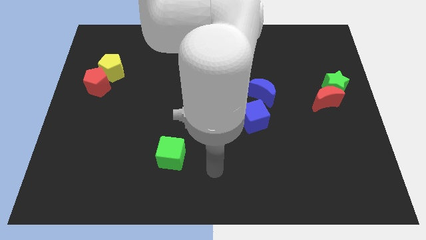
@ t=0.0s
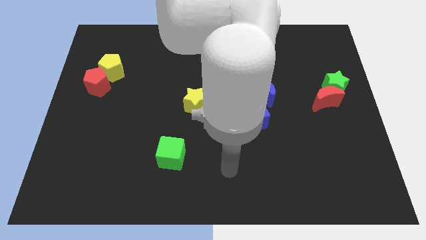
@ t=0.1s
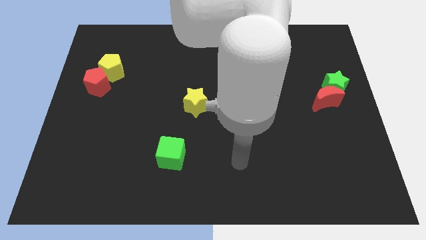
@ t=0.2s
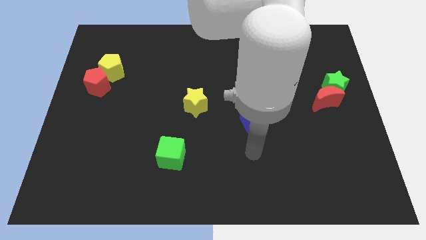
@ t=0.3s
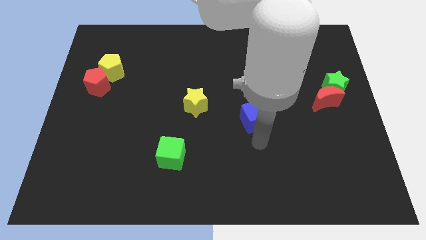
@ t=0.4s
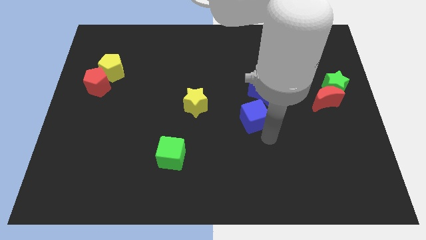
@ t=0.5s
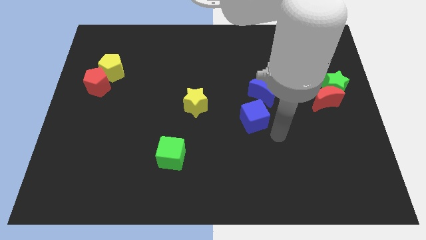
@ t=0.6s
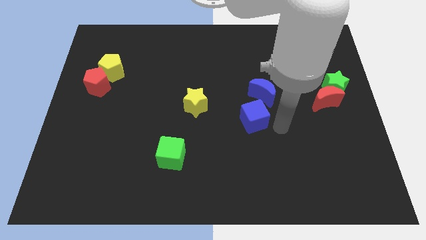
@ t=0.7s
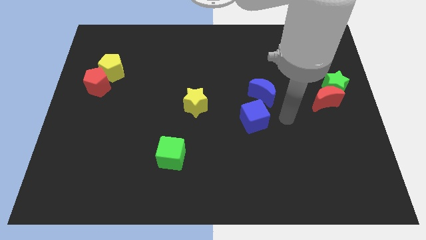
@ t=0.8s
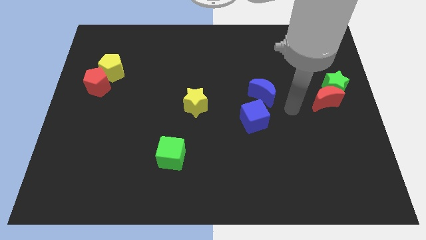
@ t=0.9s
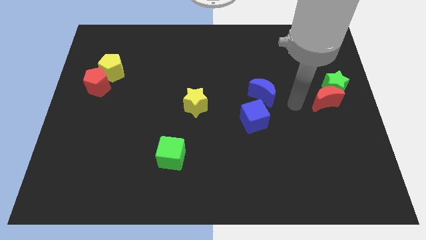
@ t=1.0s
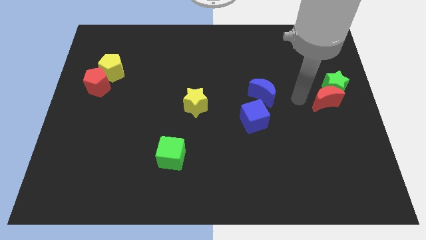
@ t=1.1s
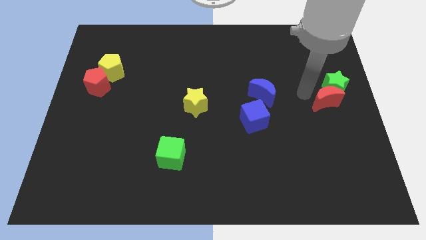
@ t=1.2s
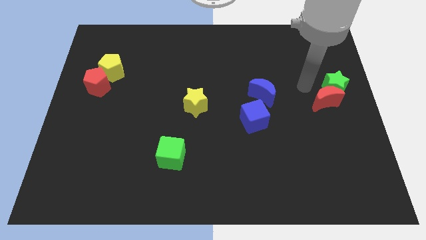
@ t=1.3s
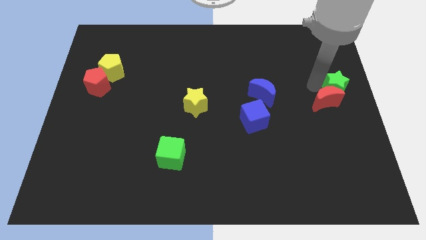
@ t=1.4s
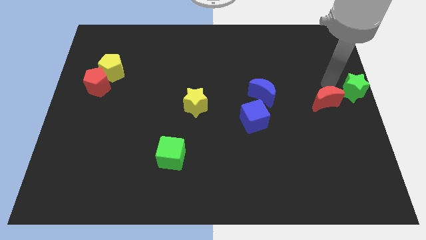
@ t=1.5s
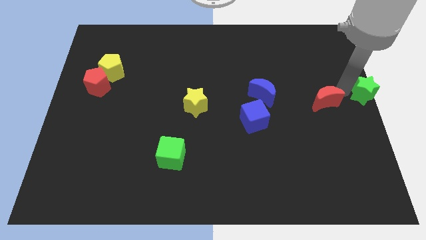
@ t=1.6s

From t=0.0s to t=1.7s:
separate the red moon from the green star

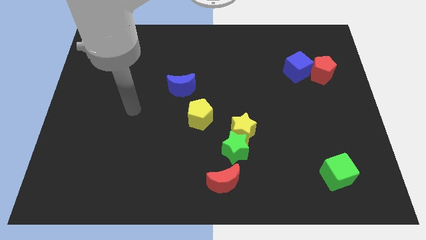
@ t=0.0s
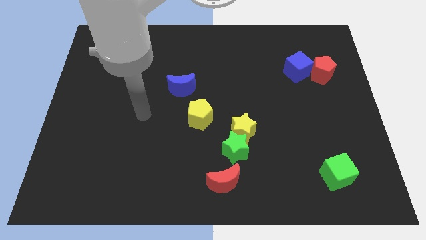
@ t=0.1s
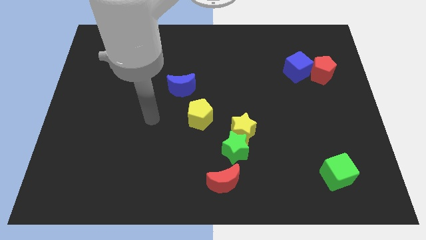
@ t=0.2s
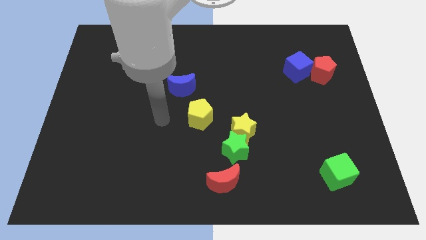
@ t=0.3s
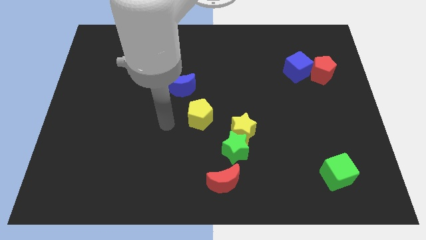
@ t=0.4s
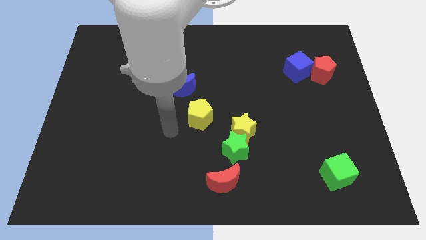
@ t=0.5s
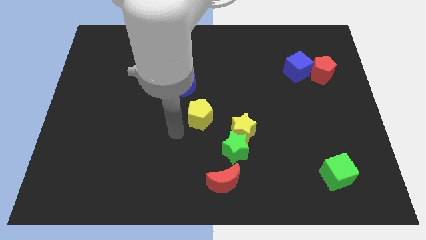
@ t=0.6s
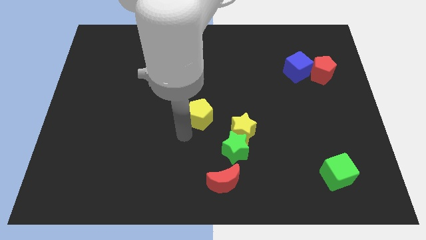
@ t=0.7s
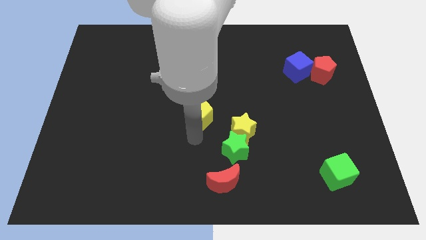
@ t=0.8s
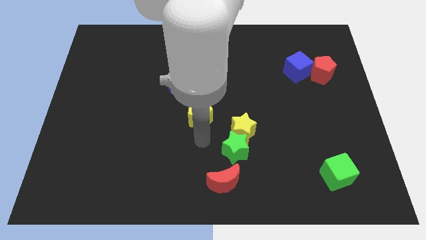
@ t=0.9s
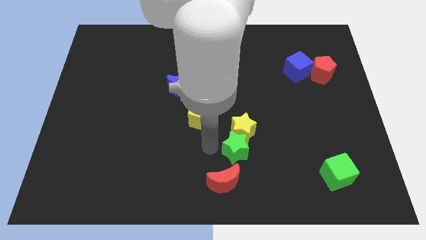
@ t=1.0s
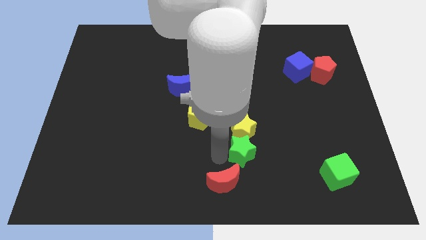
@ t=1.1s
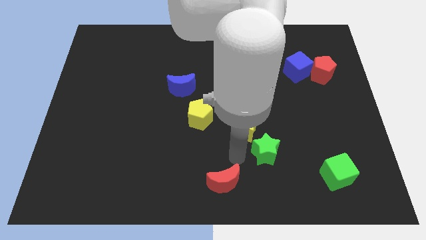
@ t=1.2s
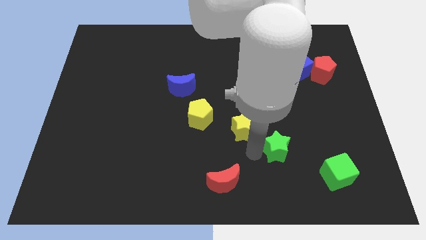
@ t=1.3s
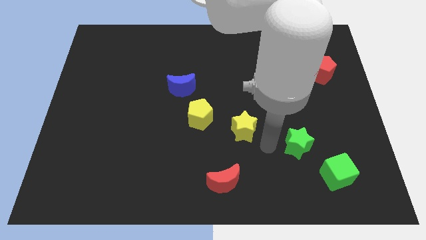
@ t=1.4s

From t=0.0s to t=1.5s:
move the yellow star away from the green star

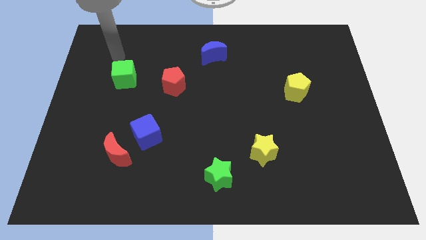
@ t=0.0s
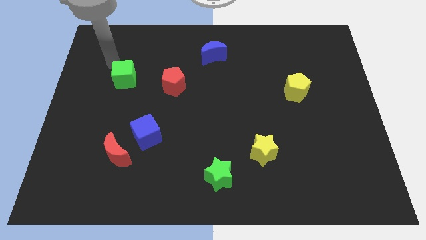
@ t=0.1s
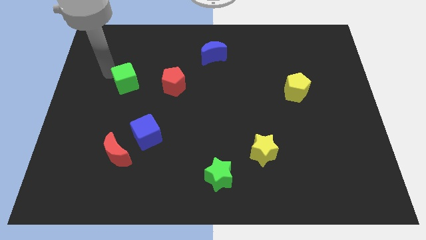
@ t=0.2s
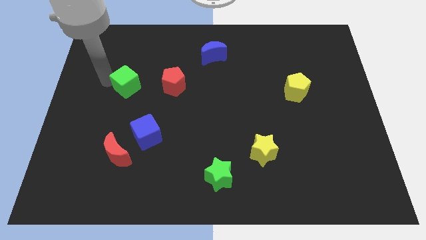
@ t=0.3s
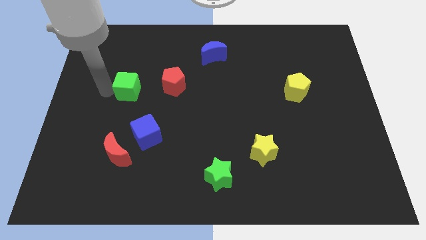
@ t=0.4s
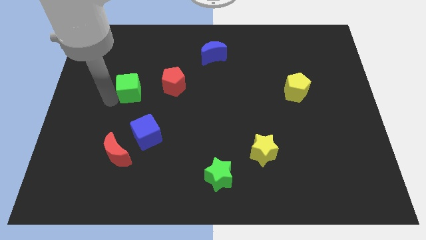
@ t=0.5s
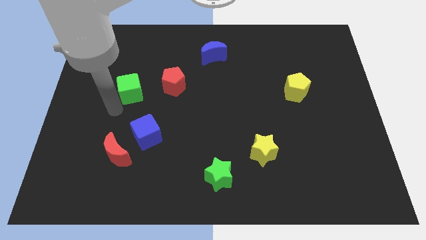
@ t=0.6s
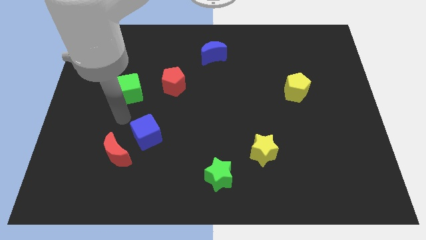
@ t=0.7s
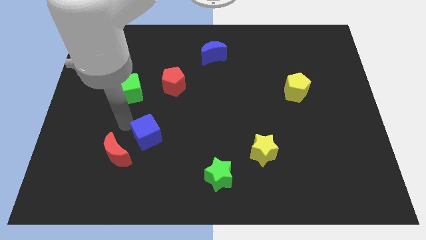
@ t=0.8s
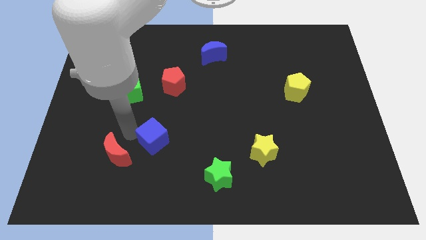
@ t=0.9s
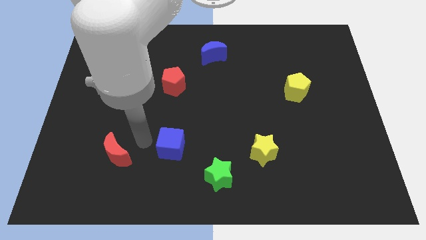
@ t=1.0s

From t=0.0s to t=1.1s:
separate the red moon from the blue cube

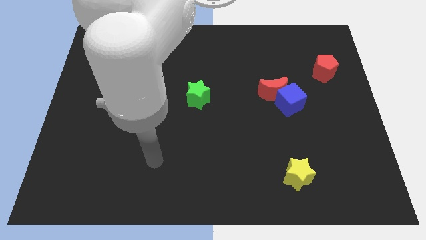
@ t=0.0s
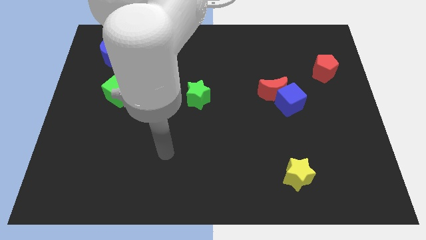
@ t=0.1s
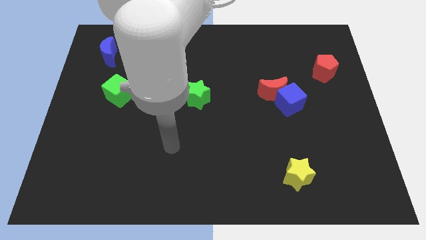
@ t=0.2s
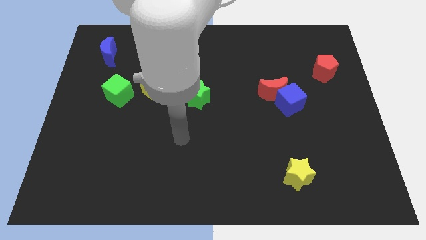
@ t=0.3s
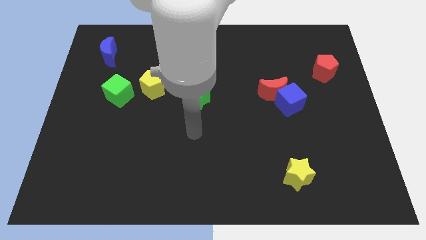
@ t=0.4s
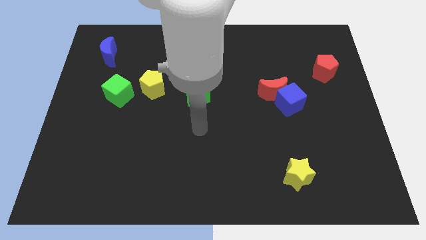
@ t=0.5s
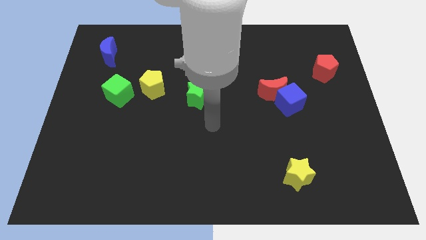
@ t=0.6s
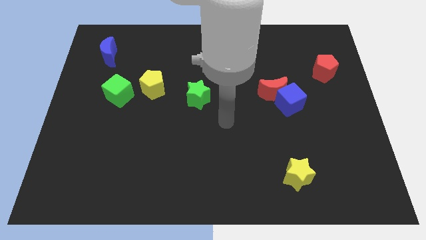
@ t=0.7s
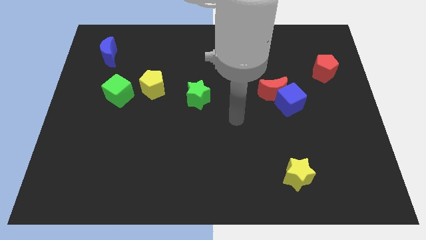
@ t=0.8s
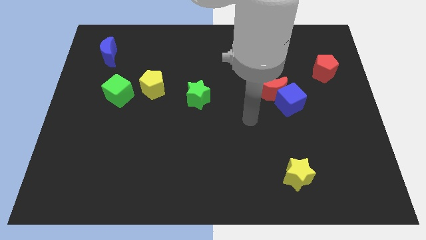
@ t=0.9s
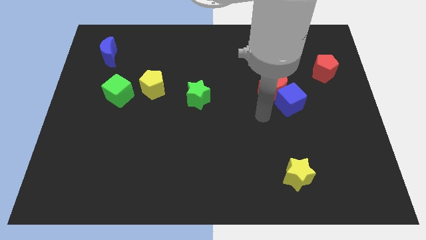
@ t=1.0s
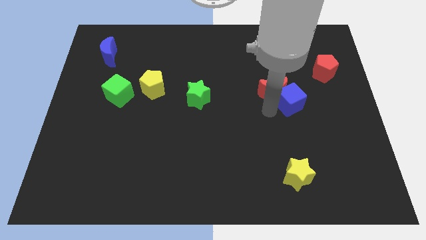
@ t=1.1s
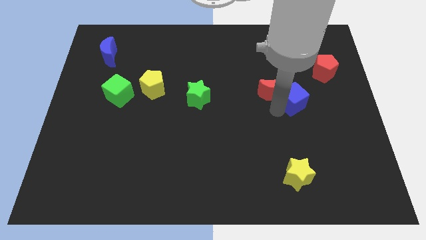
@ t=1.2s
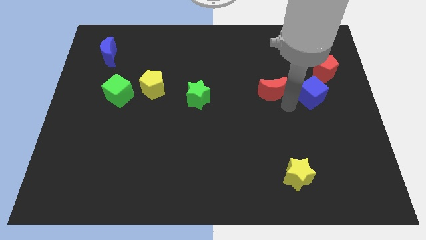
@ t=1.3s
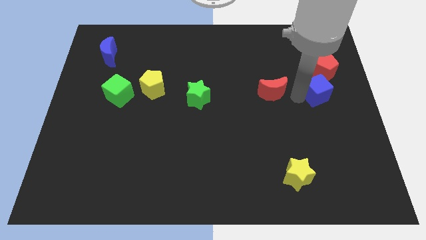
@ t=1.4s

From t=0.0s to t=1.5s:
pull the red moon apart from the blue cube

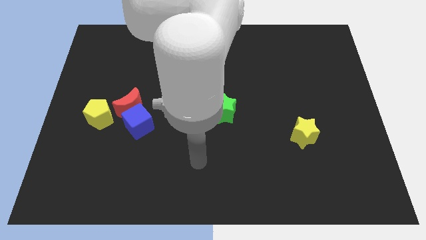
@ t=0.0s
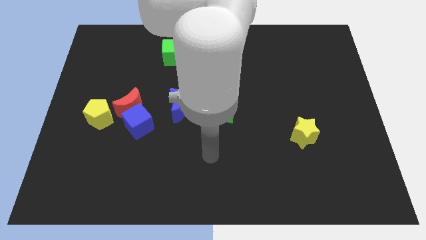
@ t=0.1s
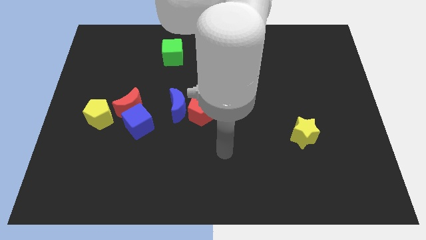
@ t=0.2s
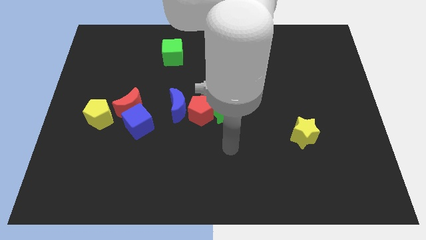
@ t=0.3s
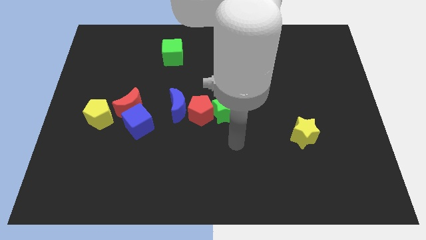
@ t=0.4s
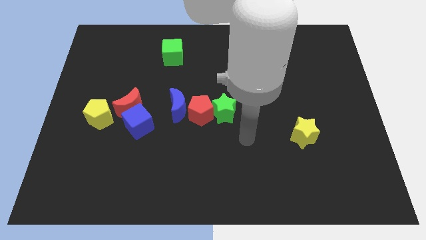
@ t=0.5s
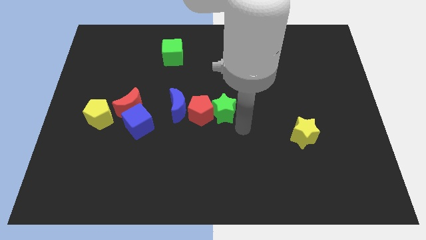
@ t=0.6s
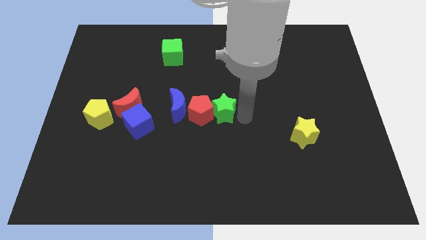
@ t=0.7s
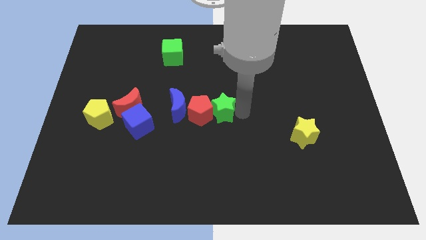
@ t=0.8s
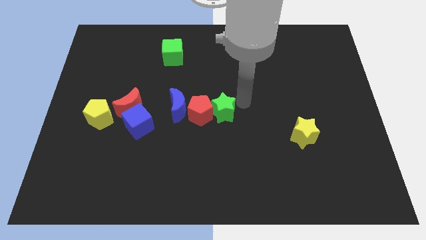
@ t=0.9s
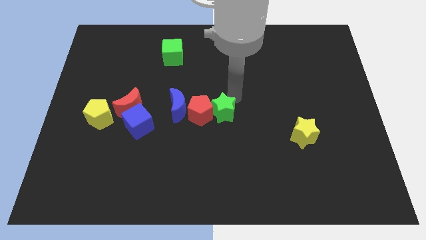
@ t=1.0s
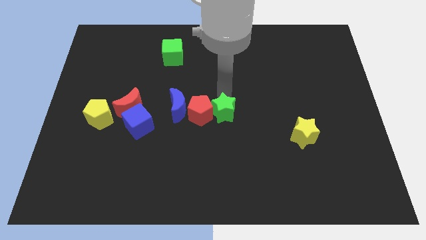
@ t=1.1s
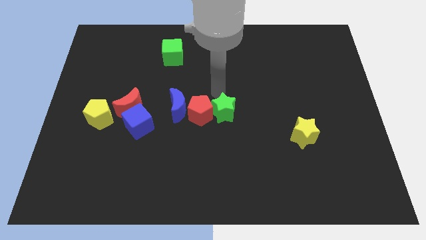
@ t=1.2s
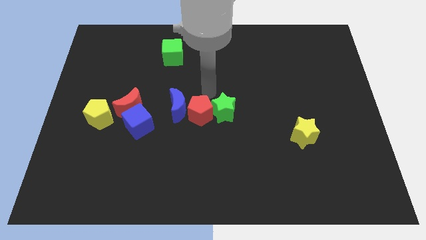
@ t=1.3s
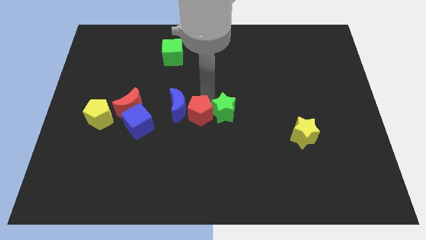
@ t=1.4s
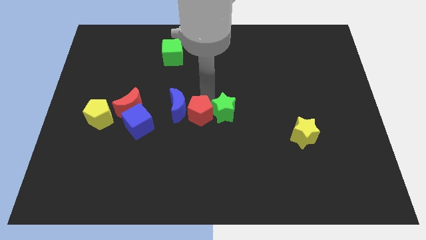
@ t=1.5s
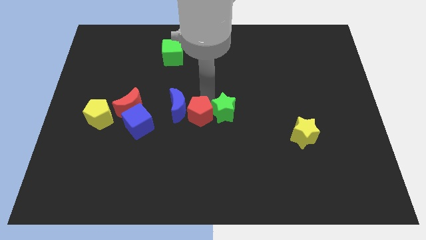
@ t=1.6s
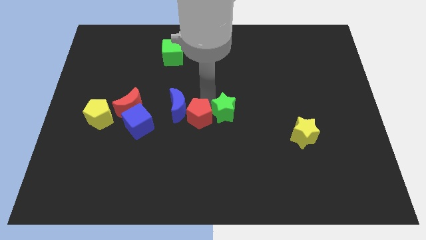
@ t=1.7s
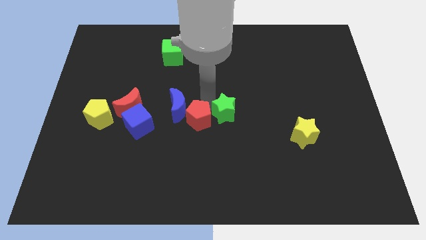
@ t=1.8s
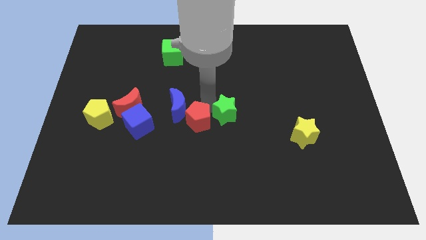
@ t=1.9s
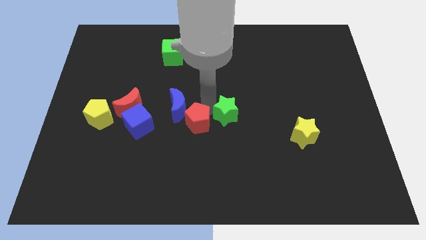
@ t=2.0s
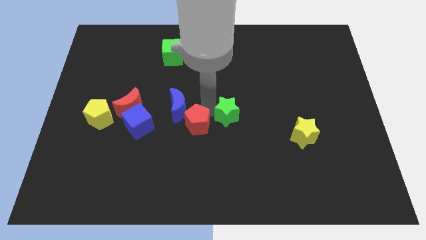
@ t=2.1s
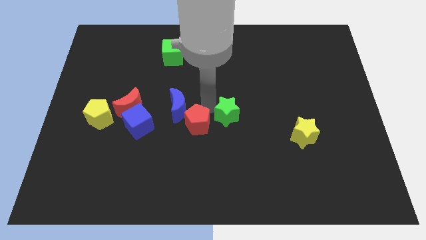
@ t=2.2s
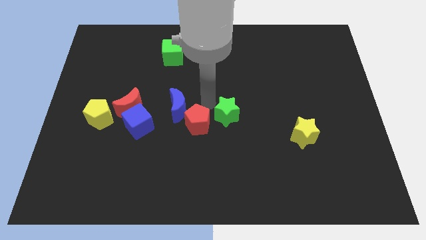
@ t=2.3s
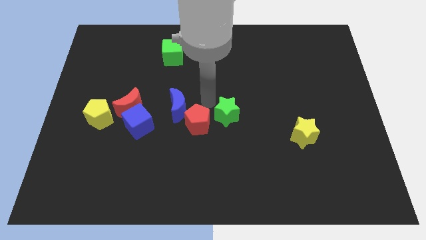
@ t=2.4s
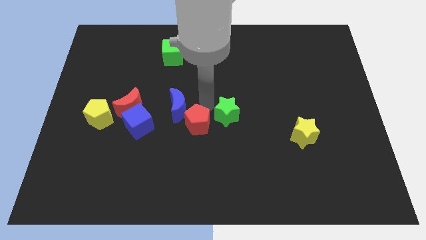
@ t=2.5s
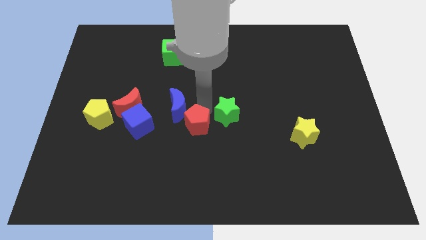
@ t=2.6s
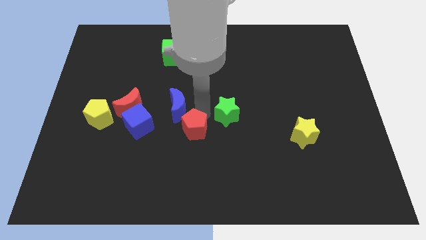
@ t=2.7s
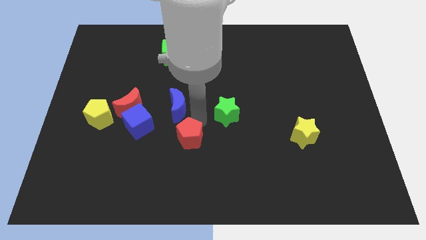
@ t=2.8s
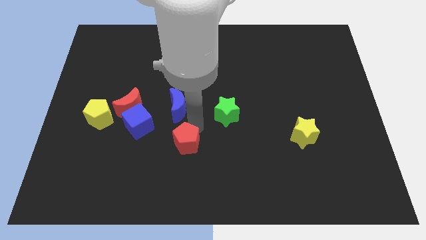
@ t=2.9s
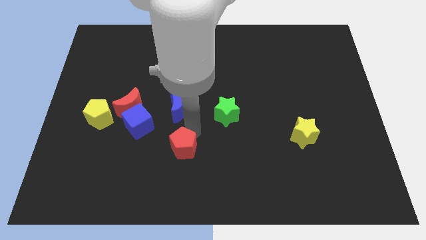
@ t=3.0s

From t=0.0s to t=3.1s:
pull the red pentagon apart from the blue moon and green star

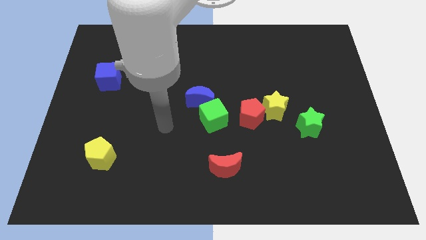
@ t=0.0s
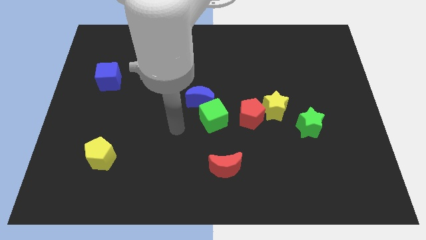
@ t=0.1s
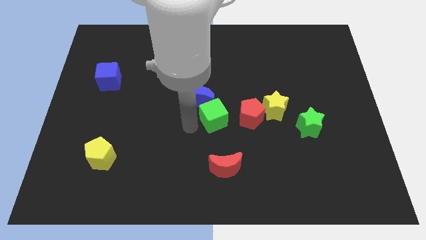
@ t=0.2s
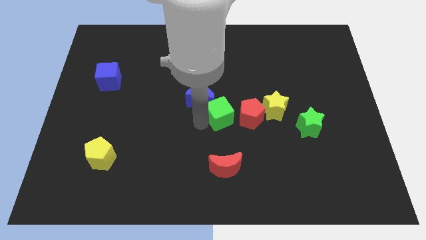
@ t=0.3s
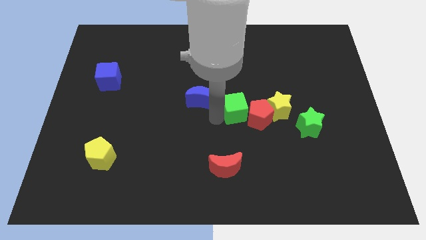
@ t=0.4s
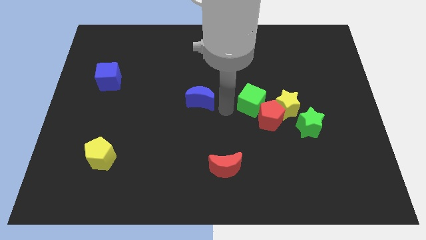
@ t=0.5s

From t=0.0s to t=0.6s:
move the blue moon away from the green cube
